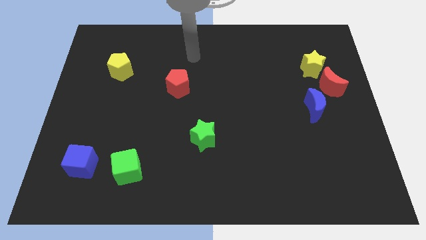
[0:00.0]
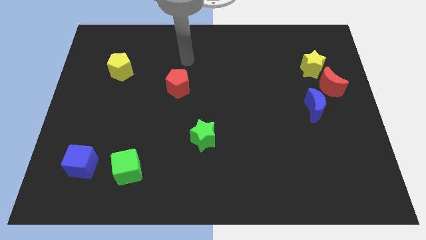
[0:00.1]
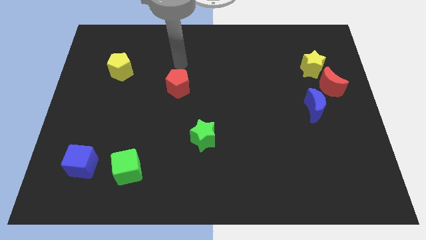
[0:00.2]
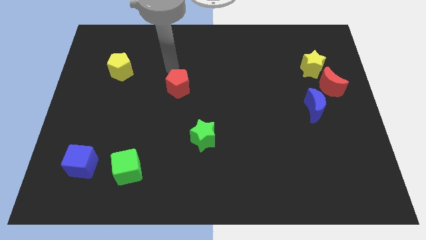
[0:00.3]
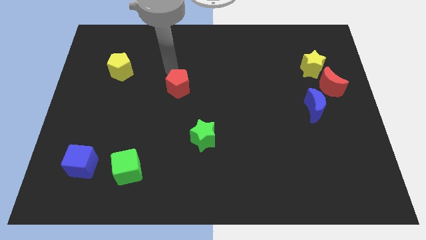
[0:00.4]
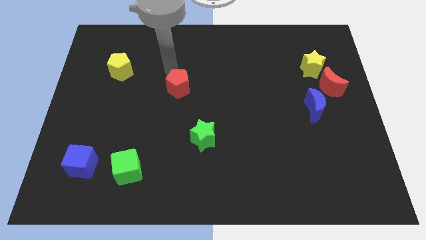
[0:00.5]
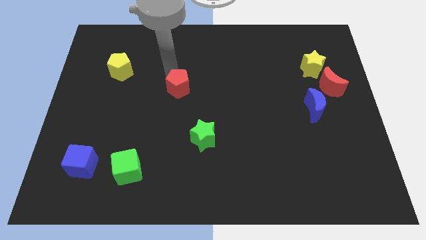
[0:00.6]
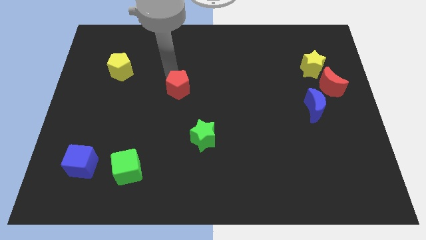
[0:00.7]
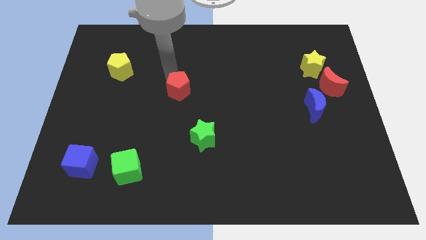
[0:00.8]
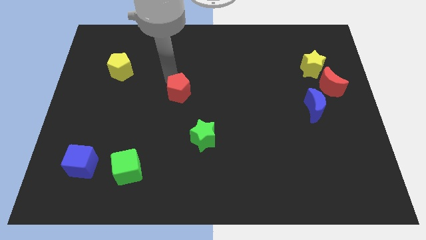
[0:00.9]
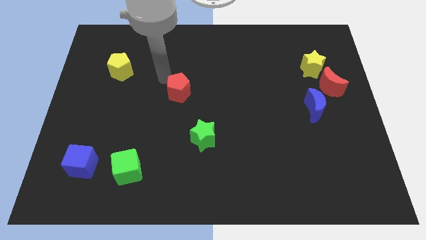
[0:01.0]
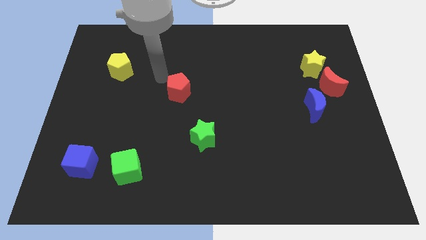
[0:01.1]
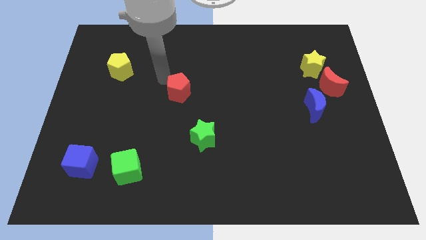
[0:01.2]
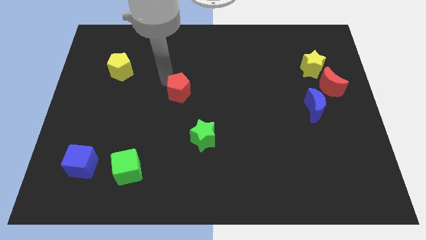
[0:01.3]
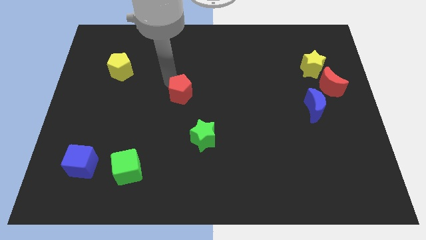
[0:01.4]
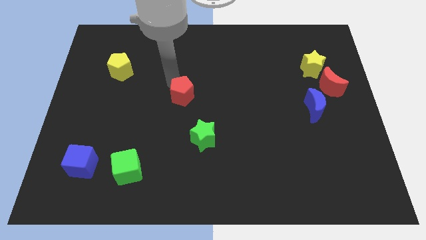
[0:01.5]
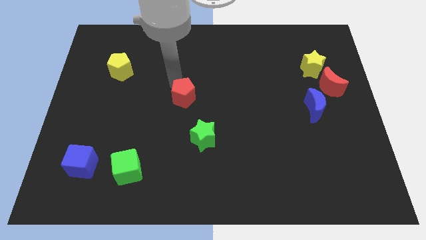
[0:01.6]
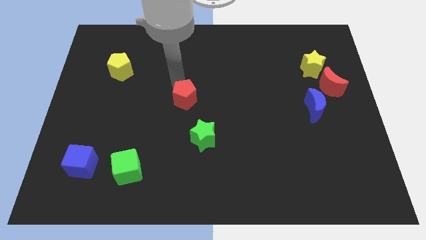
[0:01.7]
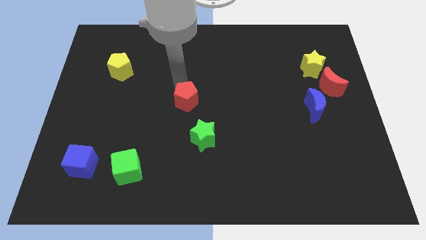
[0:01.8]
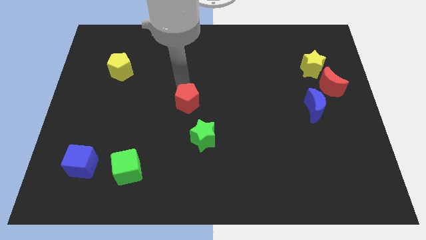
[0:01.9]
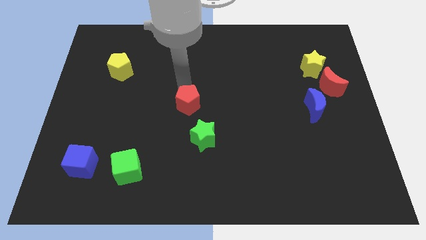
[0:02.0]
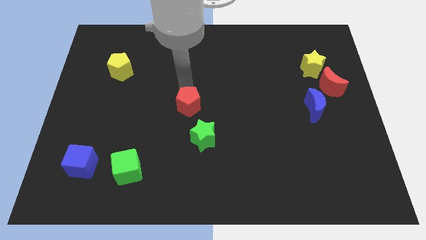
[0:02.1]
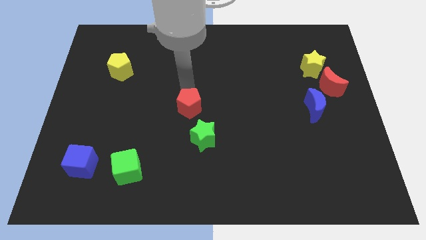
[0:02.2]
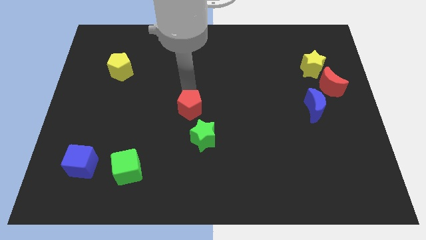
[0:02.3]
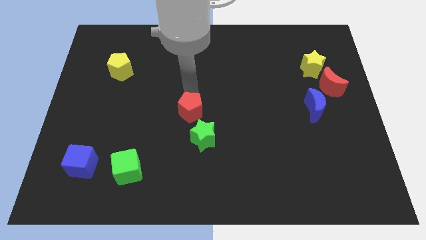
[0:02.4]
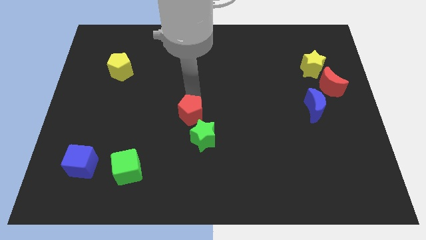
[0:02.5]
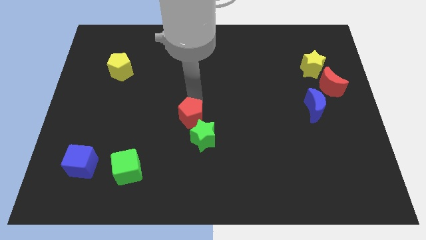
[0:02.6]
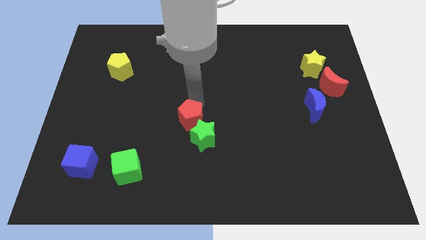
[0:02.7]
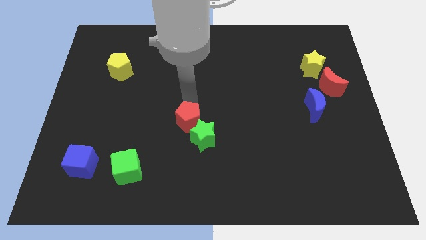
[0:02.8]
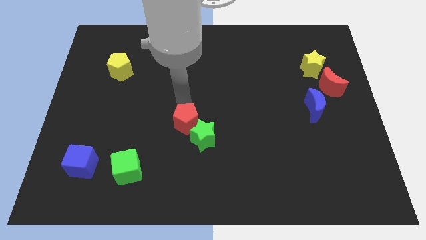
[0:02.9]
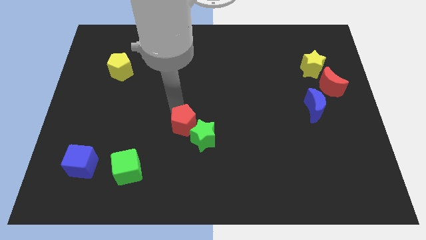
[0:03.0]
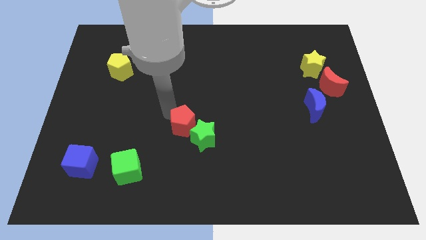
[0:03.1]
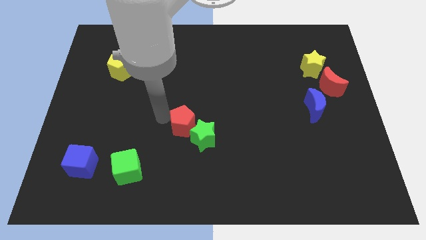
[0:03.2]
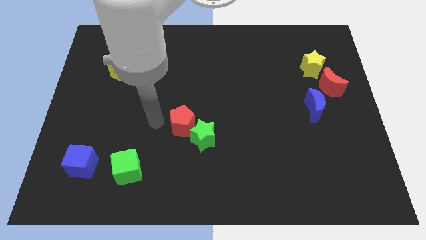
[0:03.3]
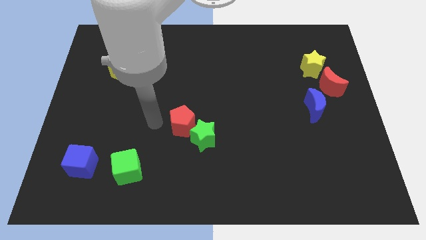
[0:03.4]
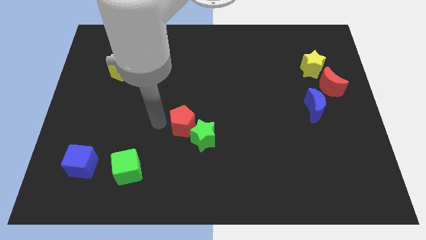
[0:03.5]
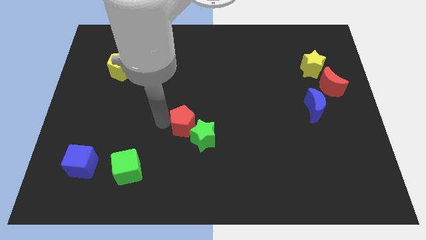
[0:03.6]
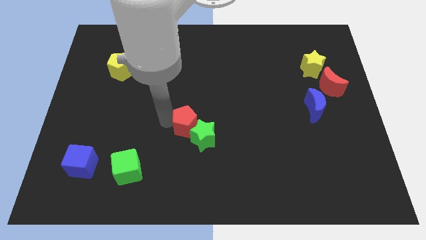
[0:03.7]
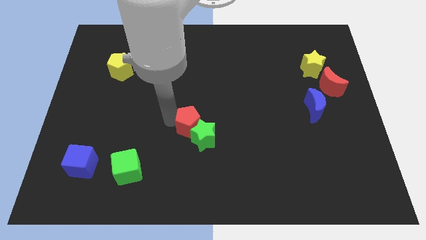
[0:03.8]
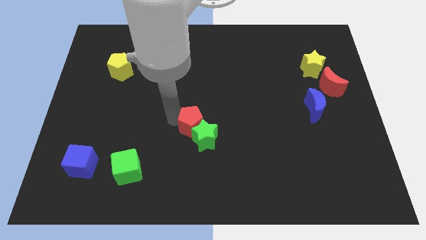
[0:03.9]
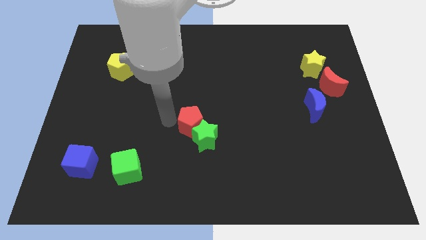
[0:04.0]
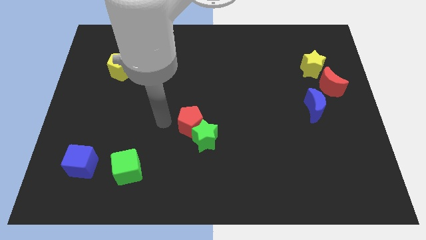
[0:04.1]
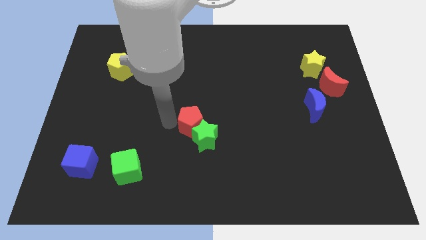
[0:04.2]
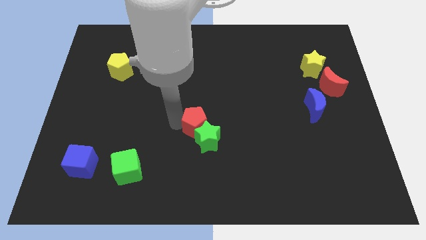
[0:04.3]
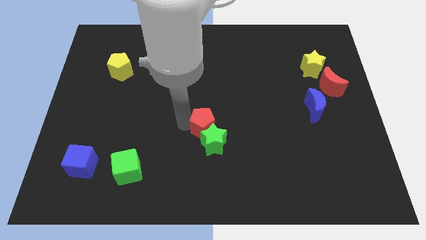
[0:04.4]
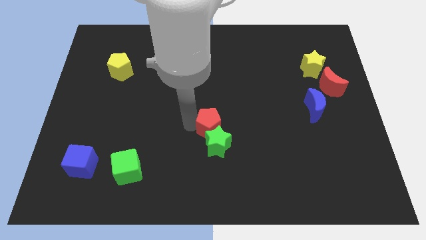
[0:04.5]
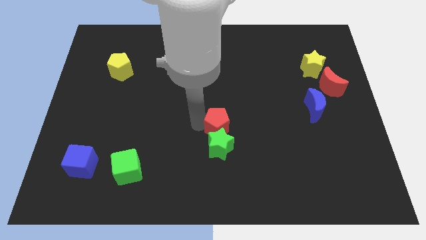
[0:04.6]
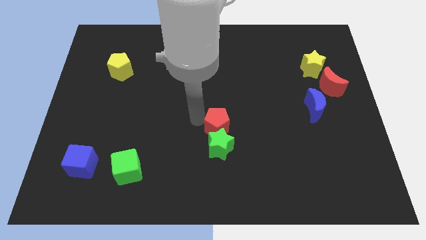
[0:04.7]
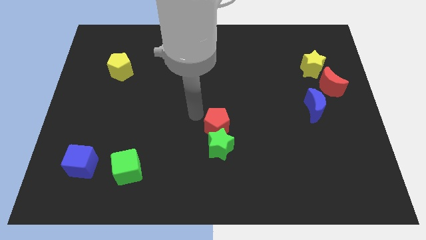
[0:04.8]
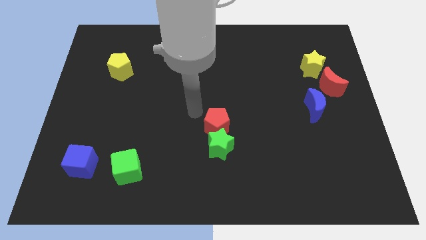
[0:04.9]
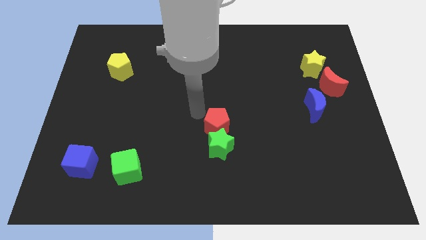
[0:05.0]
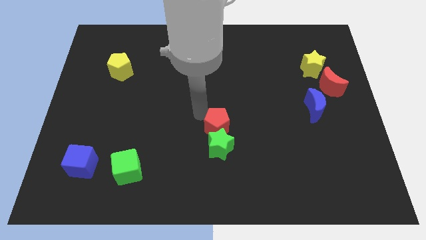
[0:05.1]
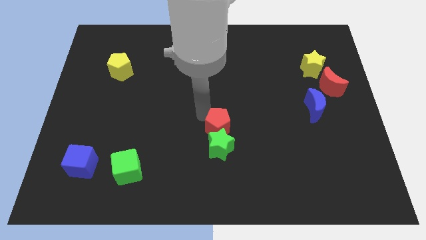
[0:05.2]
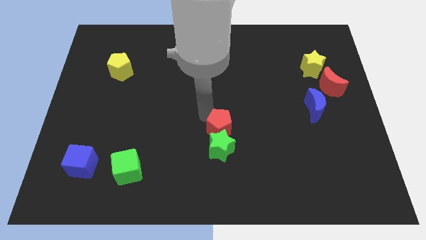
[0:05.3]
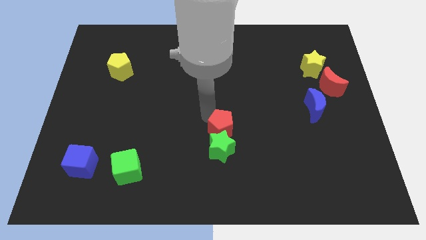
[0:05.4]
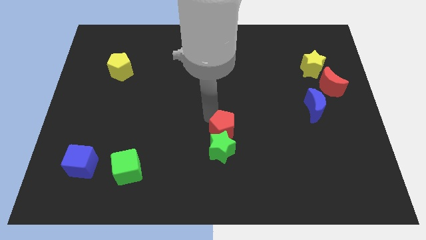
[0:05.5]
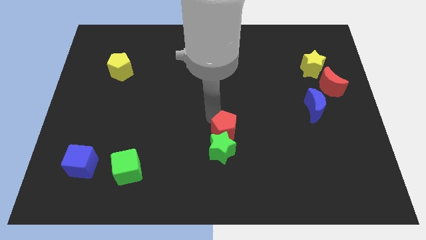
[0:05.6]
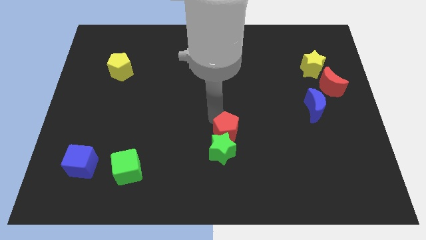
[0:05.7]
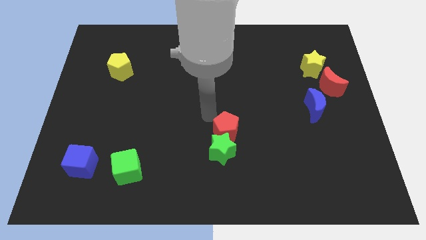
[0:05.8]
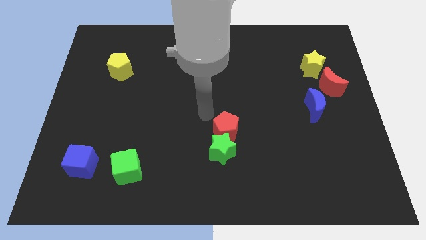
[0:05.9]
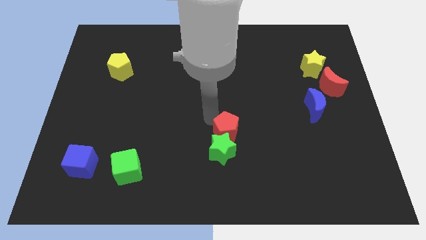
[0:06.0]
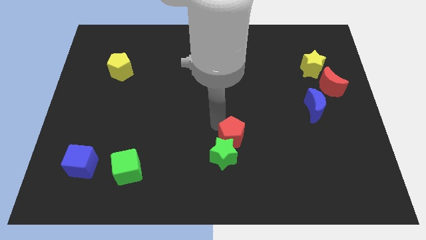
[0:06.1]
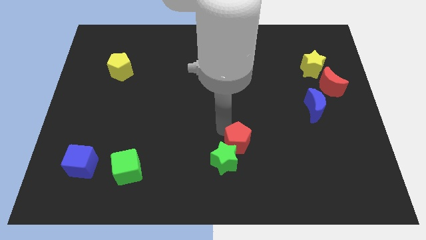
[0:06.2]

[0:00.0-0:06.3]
push the red pentagon down and right diagonally

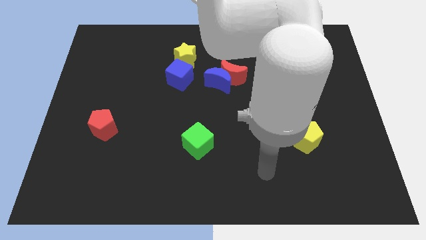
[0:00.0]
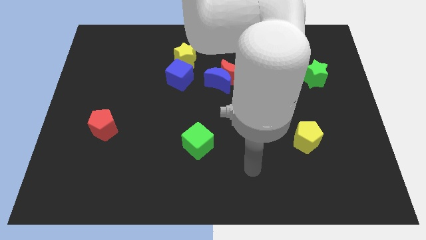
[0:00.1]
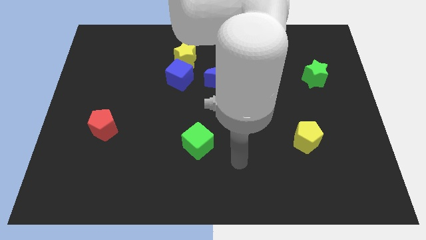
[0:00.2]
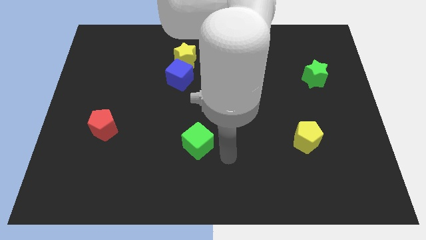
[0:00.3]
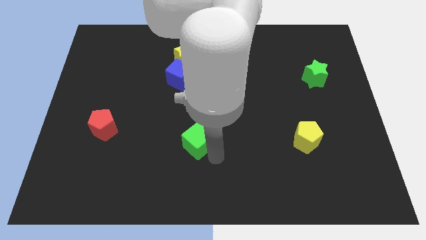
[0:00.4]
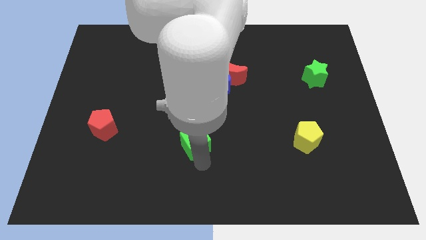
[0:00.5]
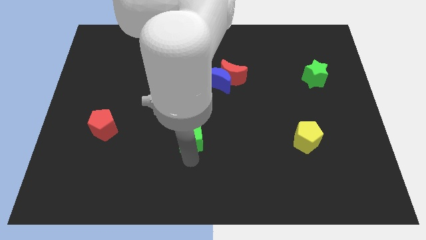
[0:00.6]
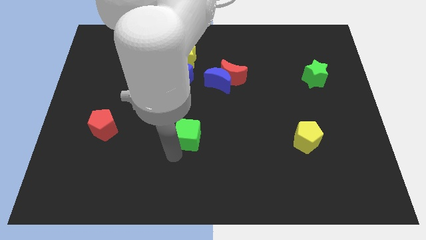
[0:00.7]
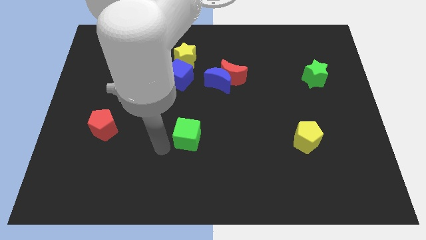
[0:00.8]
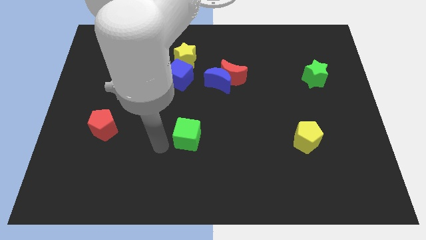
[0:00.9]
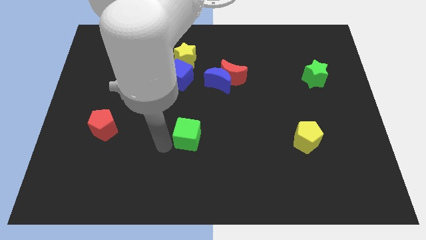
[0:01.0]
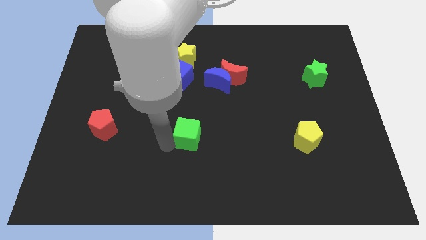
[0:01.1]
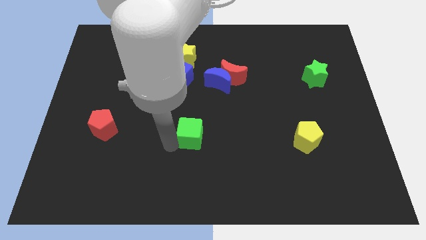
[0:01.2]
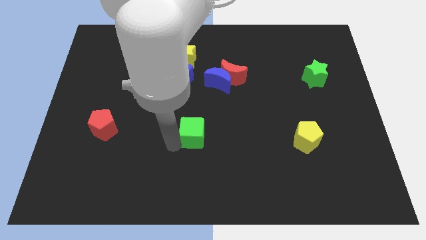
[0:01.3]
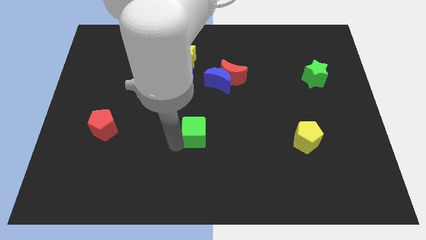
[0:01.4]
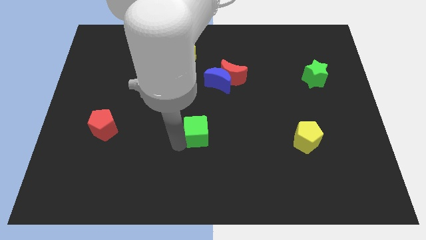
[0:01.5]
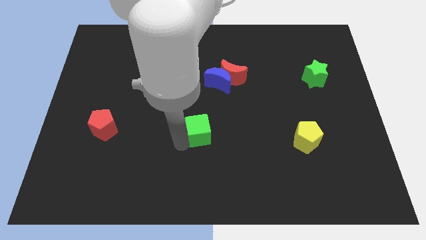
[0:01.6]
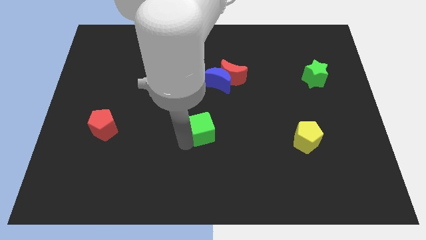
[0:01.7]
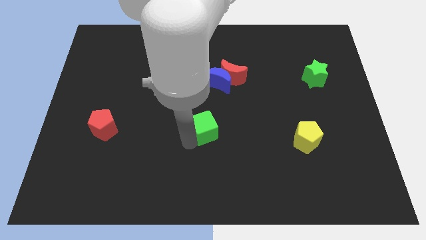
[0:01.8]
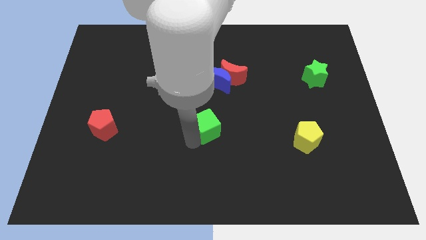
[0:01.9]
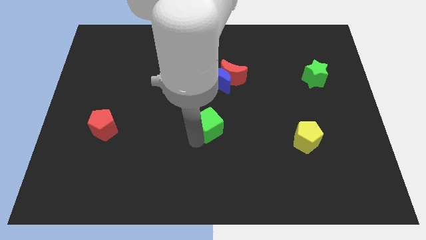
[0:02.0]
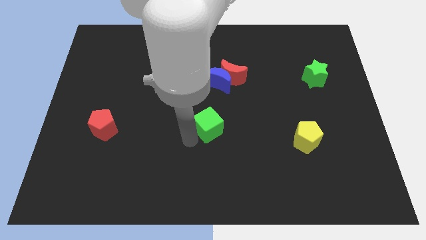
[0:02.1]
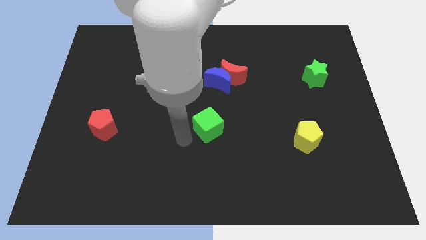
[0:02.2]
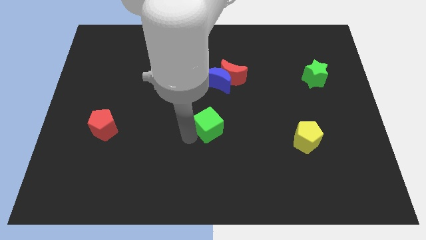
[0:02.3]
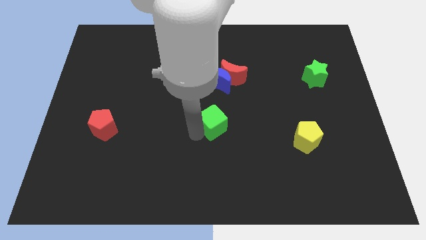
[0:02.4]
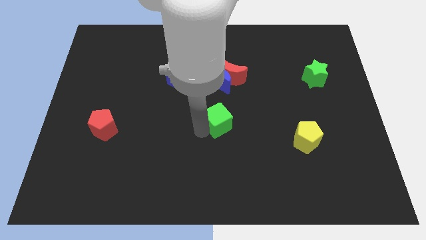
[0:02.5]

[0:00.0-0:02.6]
slide the green cube a little up and then right
